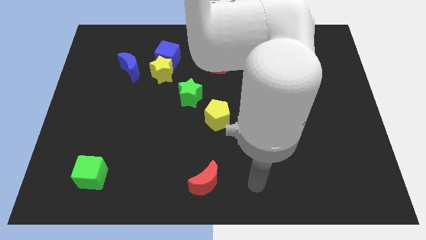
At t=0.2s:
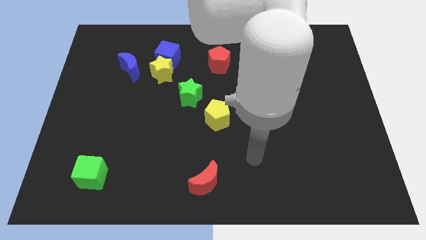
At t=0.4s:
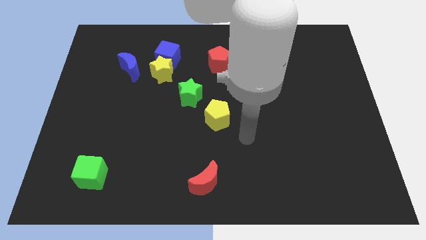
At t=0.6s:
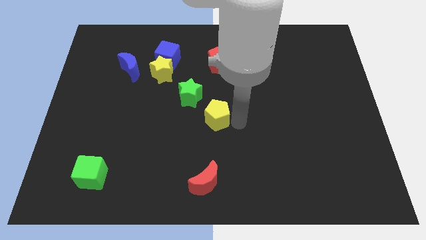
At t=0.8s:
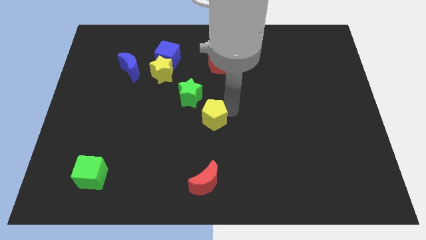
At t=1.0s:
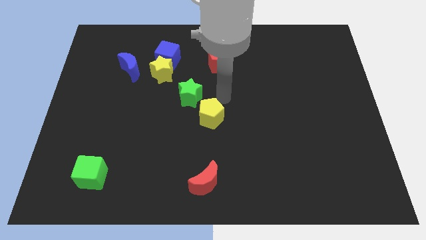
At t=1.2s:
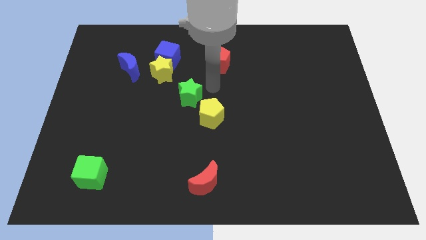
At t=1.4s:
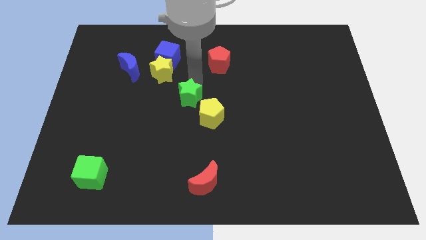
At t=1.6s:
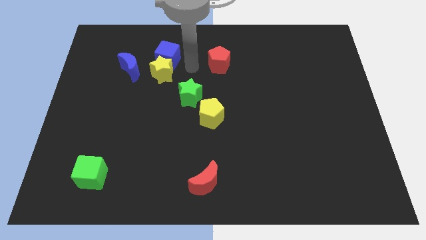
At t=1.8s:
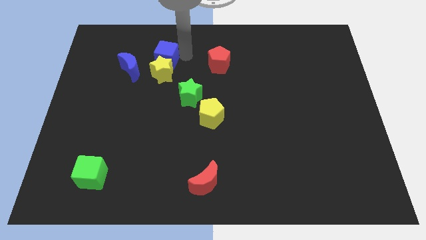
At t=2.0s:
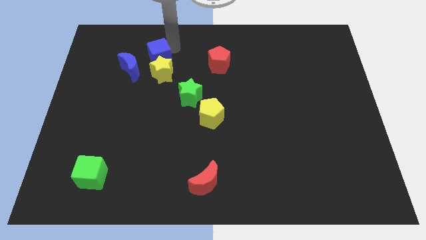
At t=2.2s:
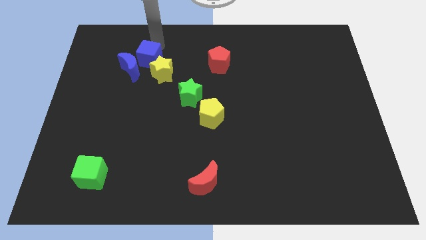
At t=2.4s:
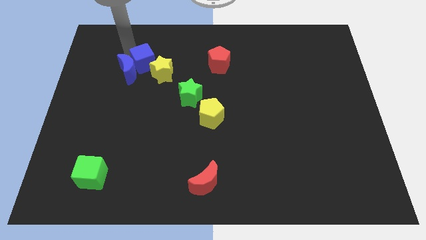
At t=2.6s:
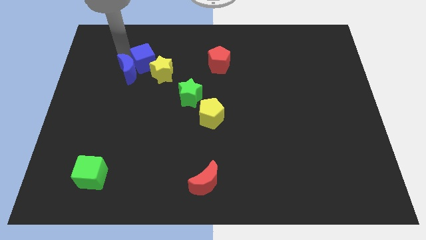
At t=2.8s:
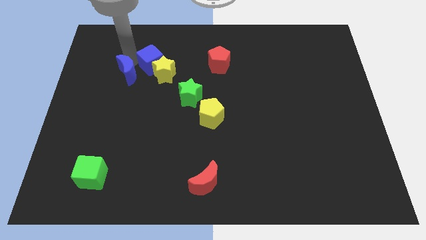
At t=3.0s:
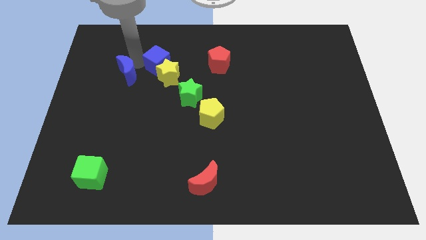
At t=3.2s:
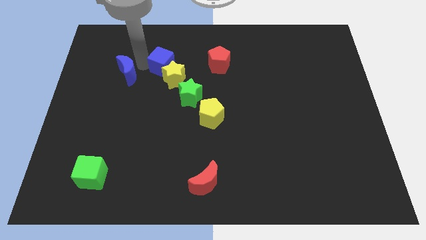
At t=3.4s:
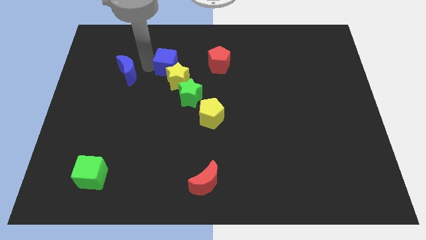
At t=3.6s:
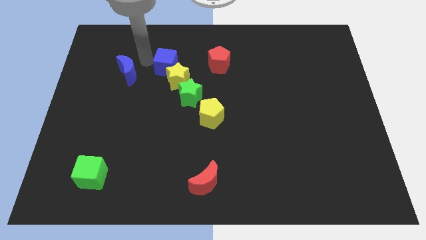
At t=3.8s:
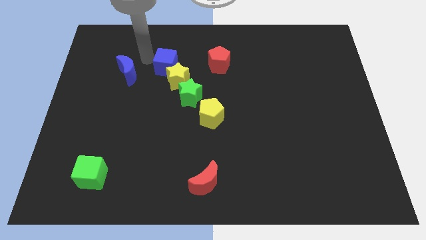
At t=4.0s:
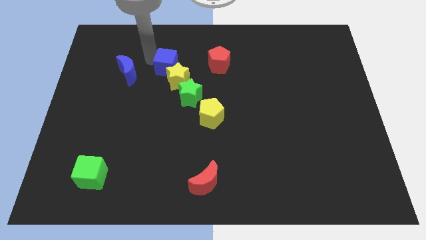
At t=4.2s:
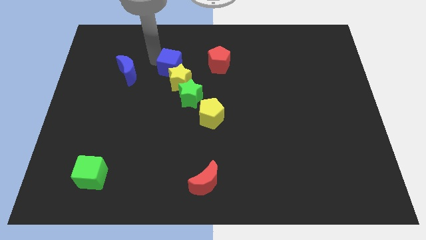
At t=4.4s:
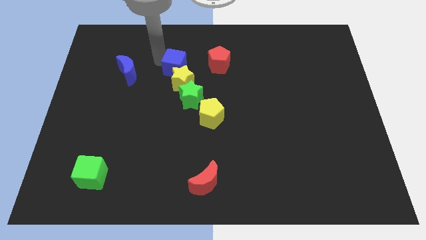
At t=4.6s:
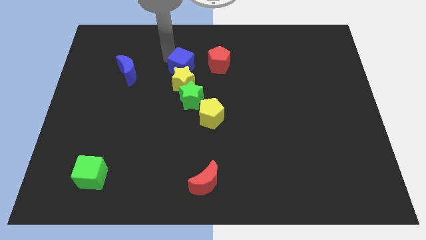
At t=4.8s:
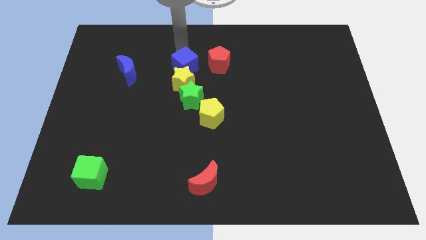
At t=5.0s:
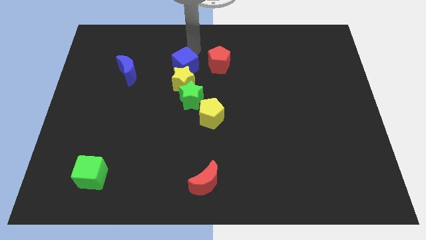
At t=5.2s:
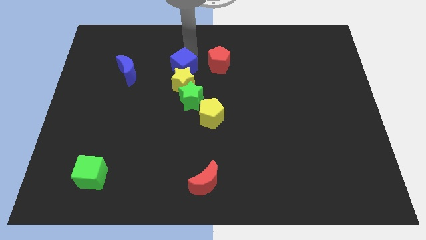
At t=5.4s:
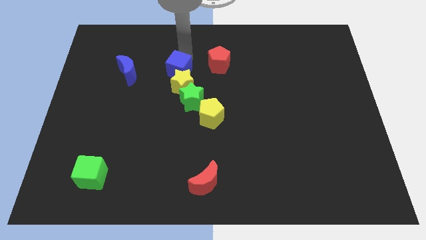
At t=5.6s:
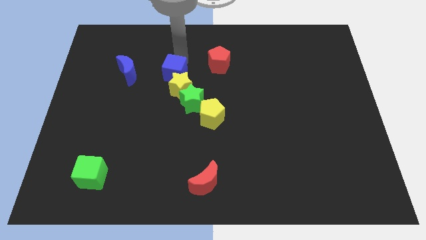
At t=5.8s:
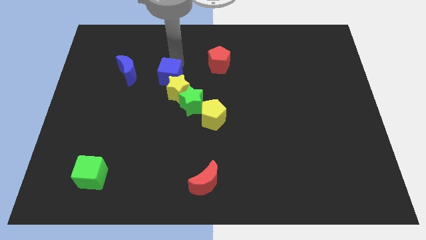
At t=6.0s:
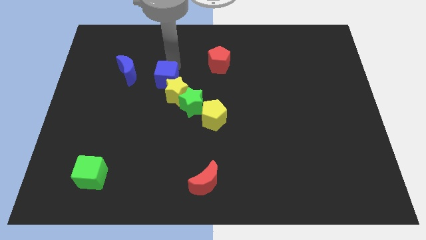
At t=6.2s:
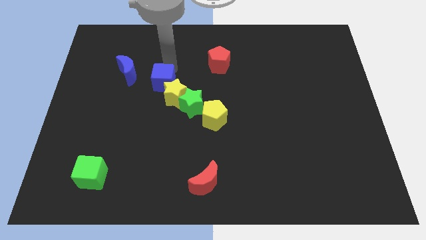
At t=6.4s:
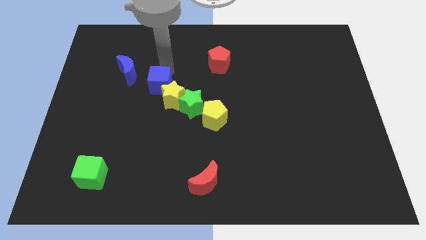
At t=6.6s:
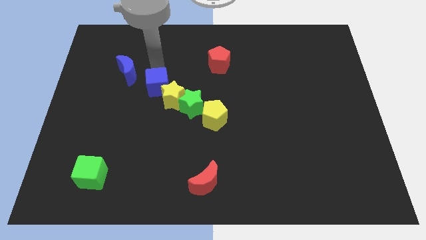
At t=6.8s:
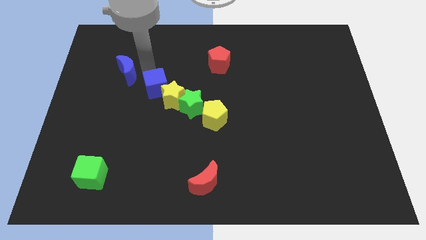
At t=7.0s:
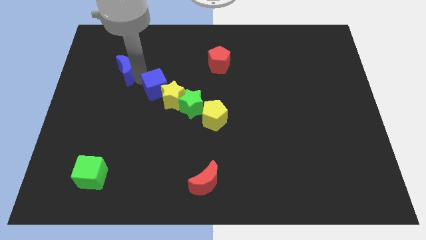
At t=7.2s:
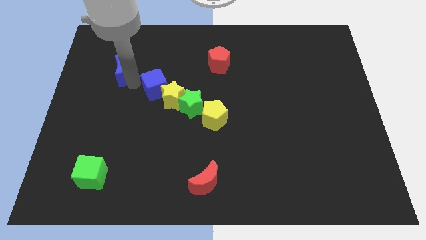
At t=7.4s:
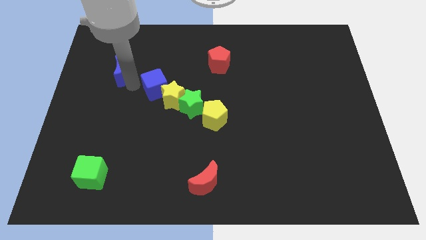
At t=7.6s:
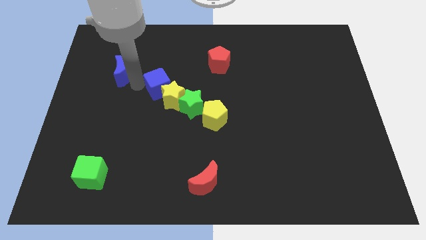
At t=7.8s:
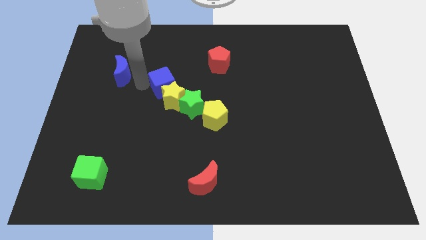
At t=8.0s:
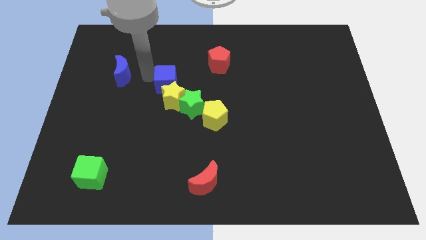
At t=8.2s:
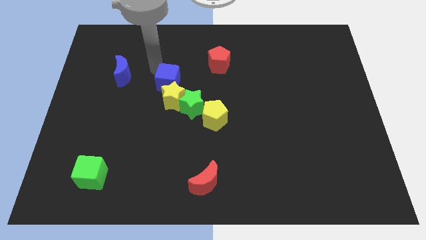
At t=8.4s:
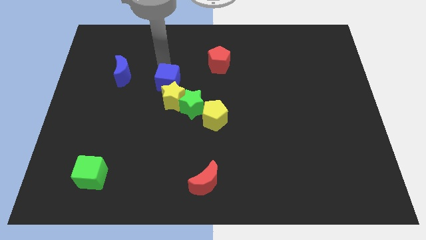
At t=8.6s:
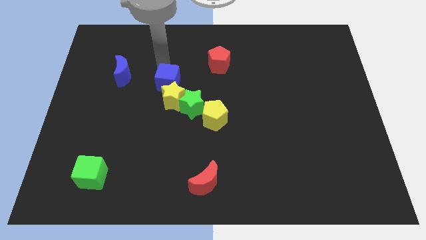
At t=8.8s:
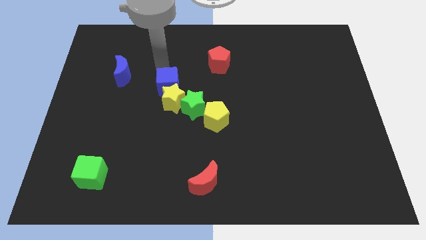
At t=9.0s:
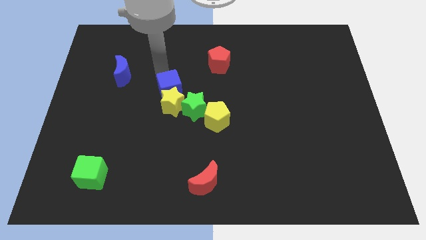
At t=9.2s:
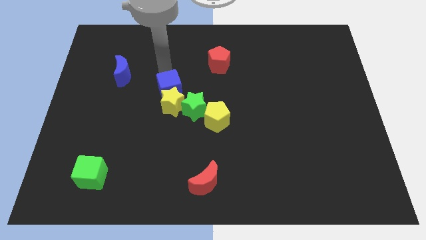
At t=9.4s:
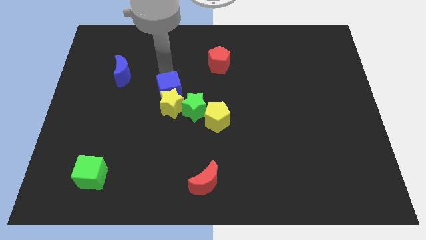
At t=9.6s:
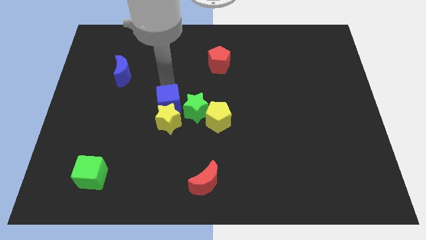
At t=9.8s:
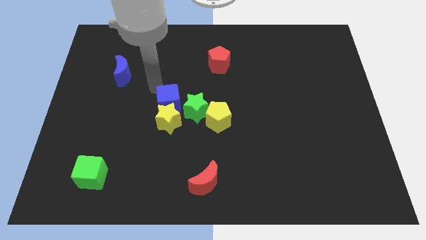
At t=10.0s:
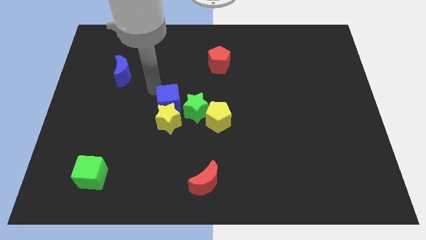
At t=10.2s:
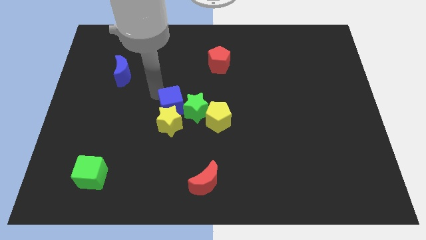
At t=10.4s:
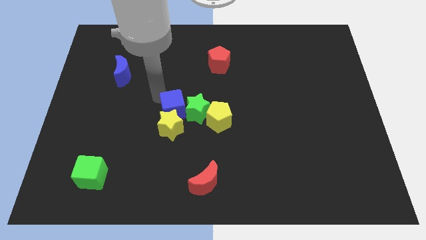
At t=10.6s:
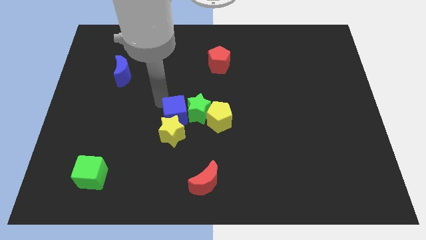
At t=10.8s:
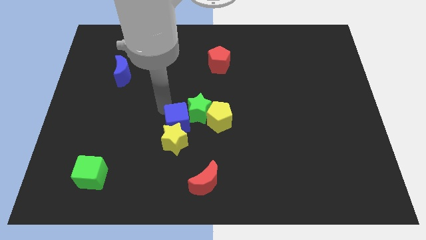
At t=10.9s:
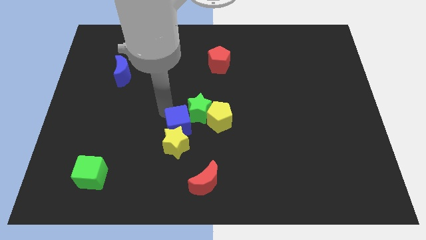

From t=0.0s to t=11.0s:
push the blue cube below the green star

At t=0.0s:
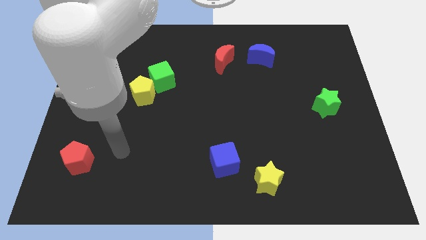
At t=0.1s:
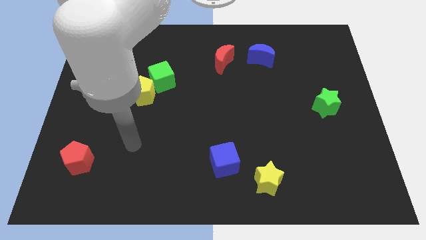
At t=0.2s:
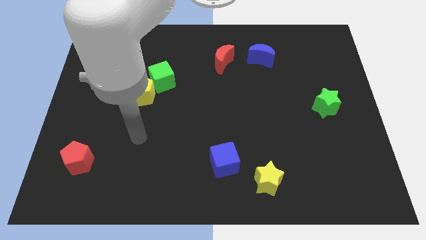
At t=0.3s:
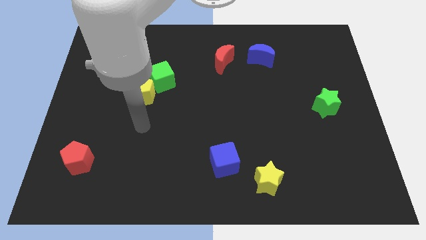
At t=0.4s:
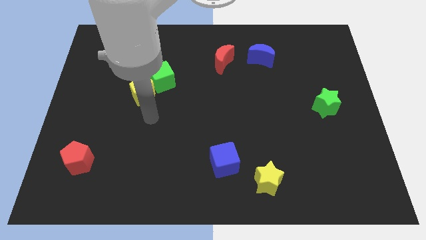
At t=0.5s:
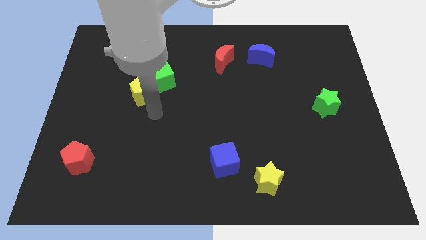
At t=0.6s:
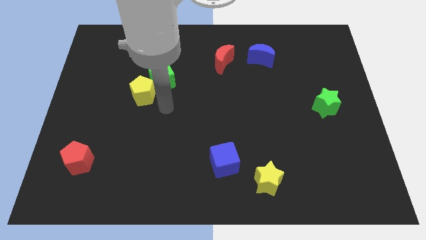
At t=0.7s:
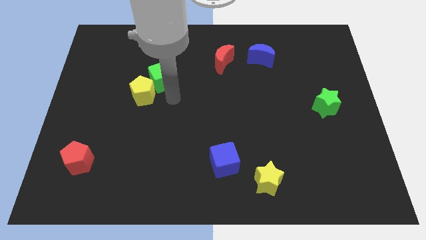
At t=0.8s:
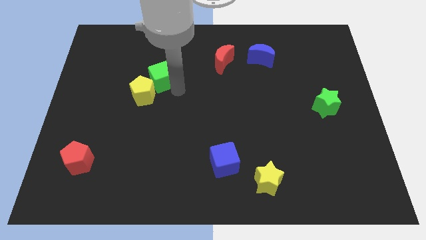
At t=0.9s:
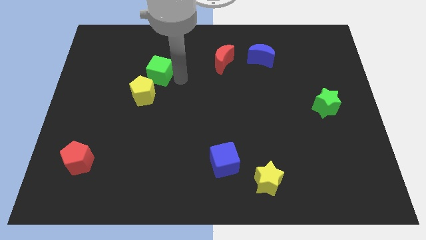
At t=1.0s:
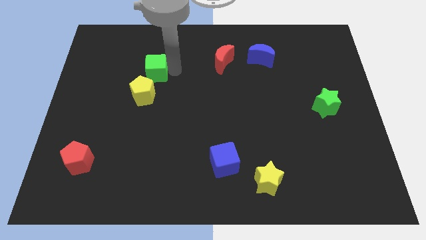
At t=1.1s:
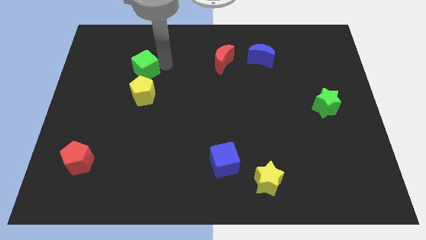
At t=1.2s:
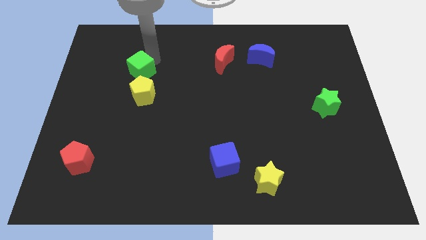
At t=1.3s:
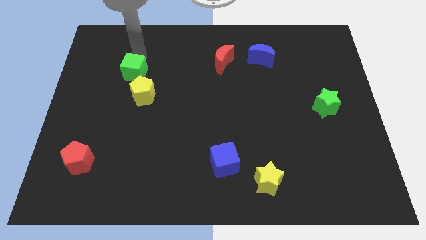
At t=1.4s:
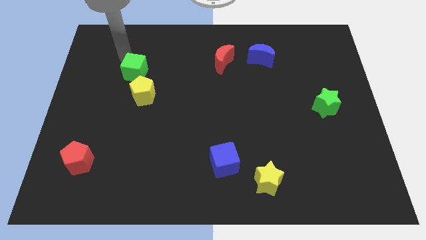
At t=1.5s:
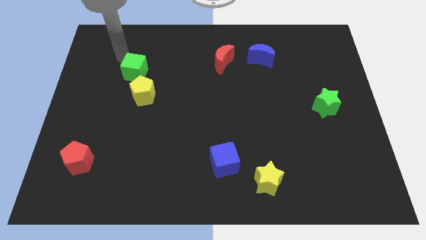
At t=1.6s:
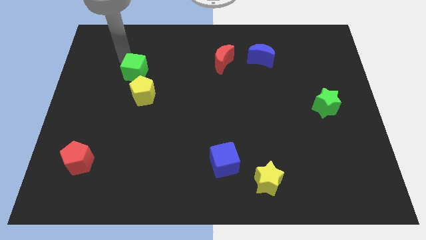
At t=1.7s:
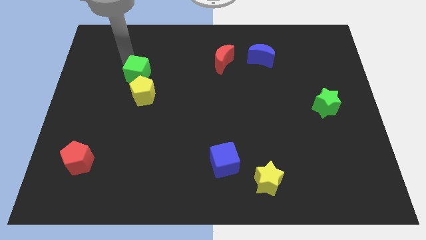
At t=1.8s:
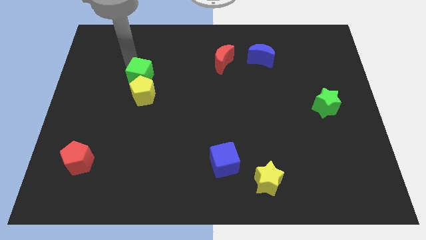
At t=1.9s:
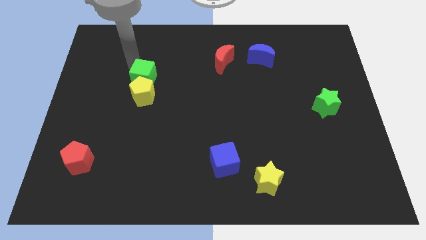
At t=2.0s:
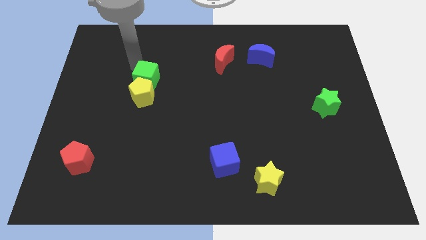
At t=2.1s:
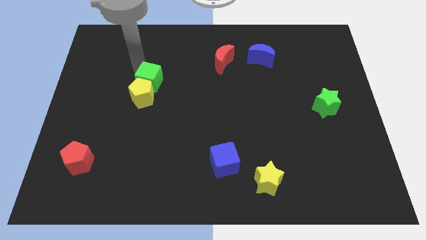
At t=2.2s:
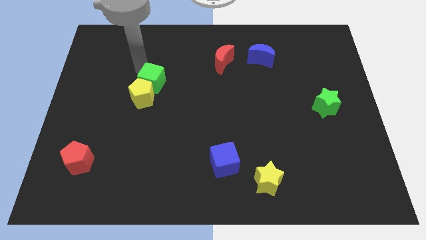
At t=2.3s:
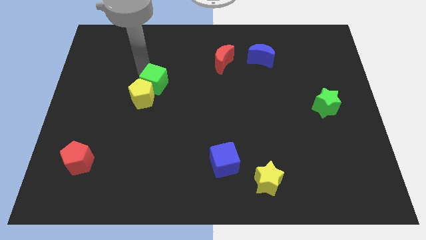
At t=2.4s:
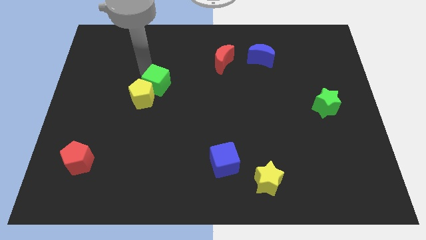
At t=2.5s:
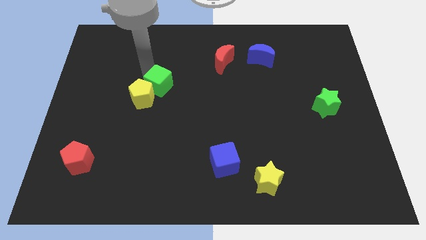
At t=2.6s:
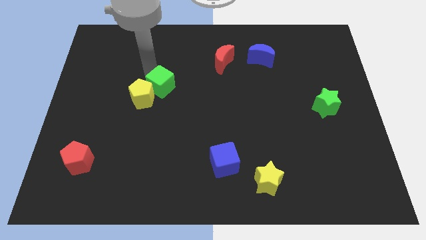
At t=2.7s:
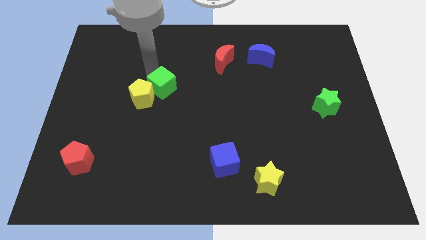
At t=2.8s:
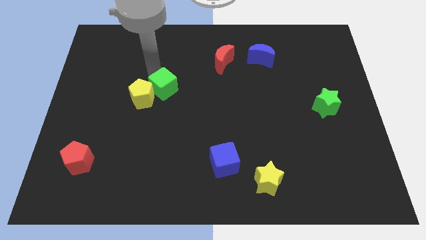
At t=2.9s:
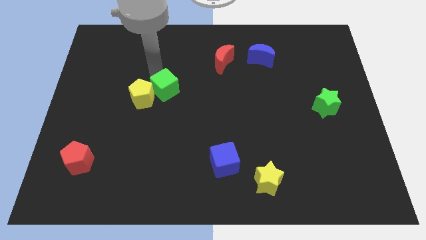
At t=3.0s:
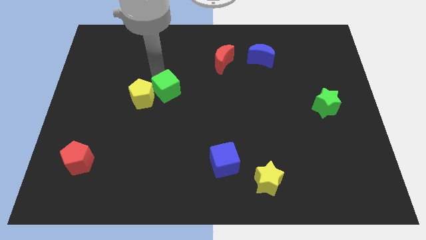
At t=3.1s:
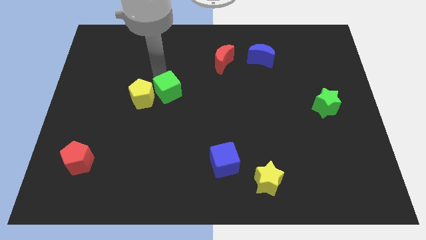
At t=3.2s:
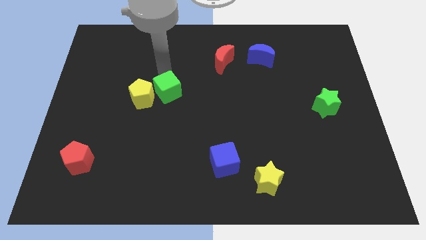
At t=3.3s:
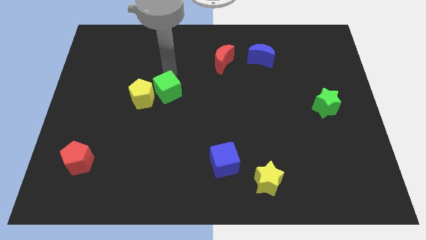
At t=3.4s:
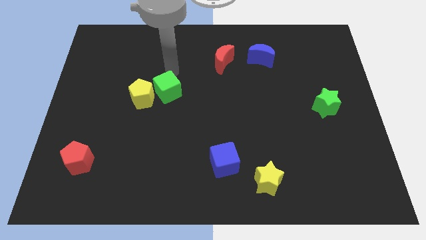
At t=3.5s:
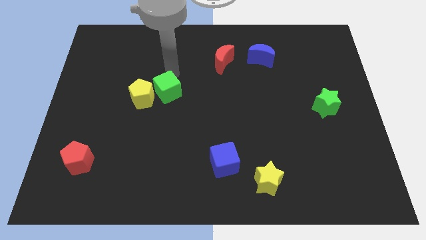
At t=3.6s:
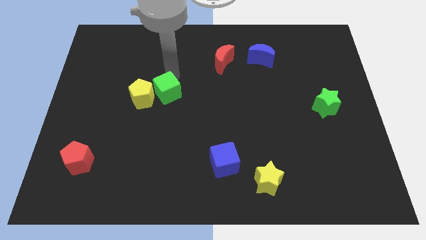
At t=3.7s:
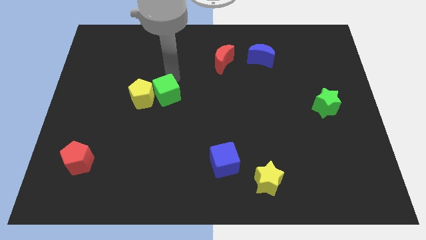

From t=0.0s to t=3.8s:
move the green cube diagonally down and to the right of the yellow pentagon
